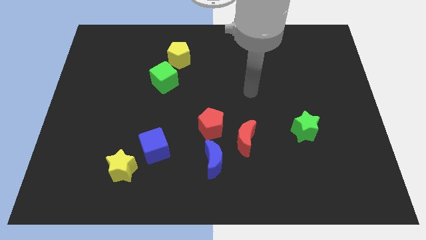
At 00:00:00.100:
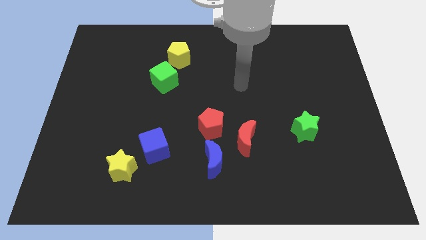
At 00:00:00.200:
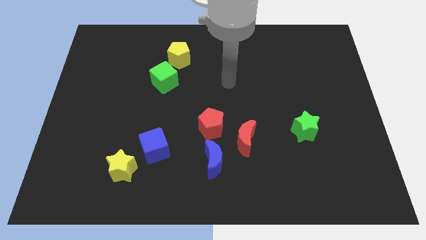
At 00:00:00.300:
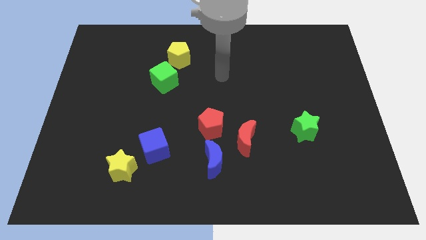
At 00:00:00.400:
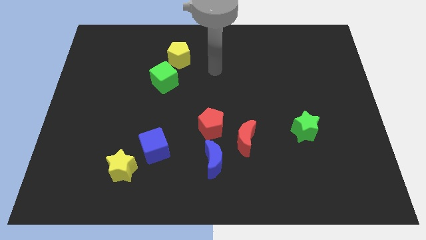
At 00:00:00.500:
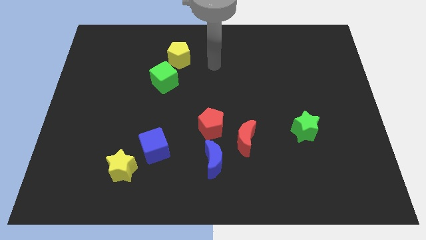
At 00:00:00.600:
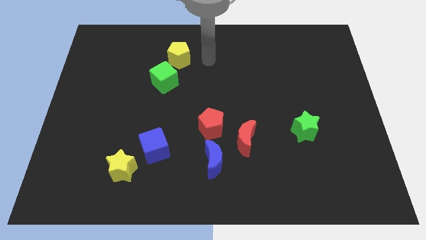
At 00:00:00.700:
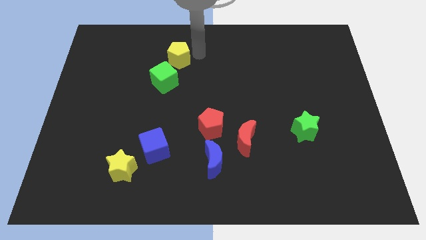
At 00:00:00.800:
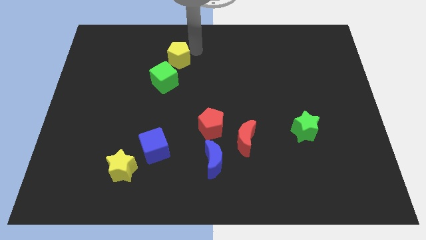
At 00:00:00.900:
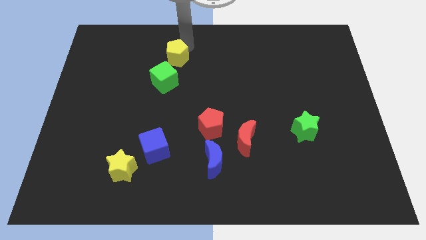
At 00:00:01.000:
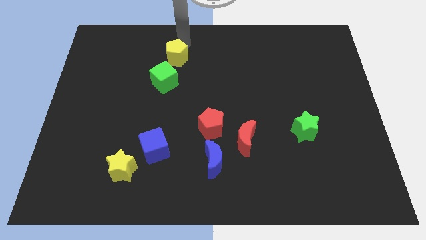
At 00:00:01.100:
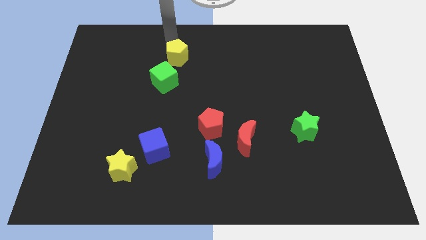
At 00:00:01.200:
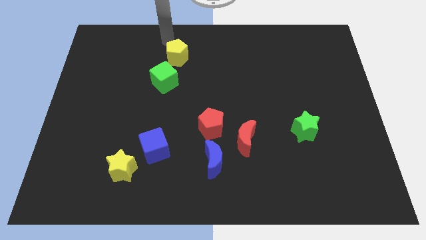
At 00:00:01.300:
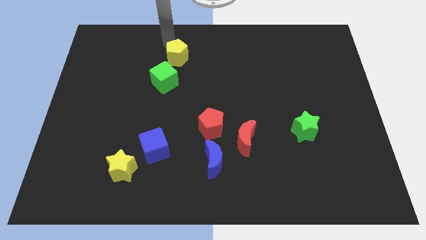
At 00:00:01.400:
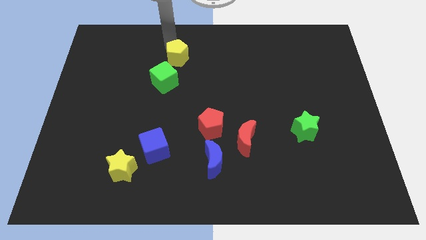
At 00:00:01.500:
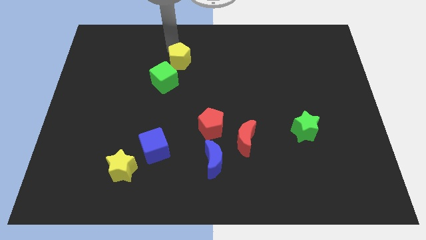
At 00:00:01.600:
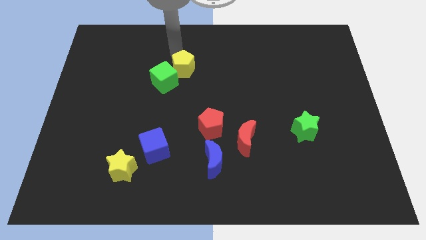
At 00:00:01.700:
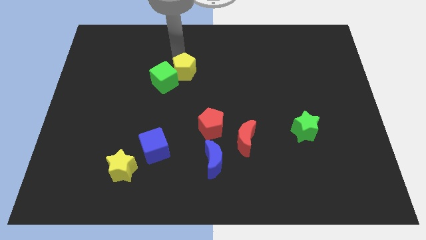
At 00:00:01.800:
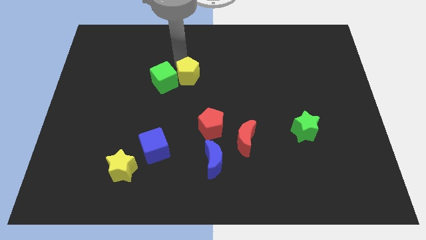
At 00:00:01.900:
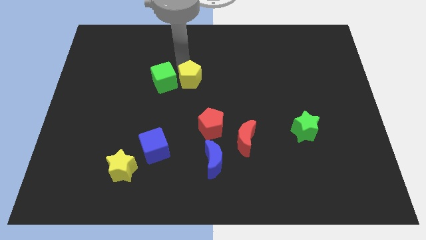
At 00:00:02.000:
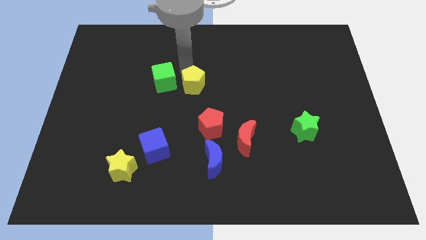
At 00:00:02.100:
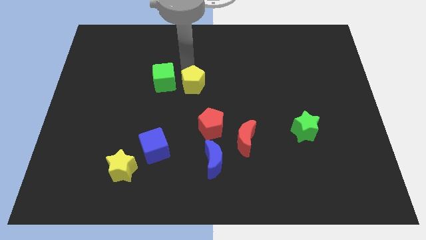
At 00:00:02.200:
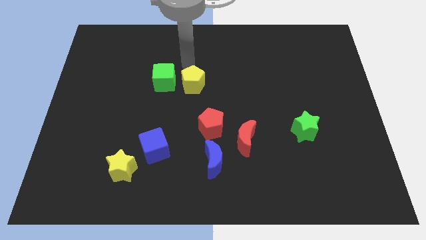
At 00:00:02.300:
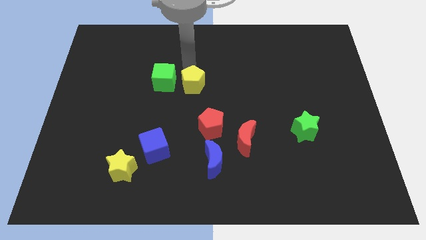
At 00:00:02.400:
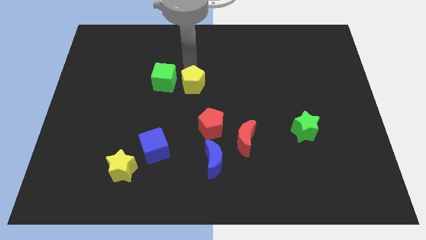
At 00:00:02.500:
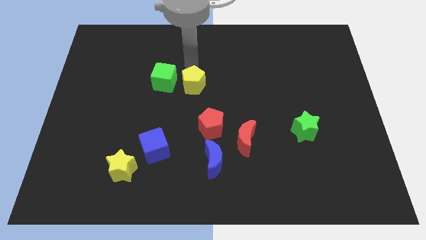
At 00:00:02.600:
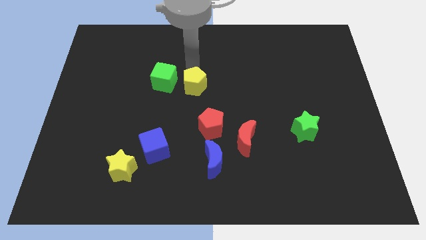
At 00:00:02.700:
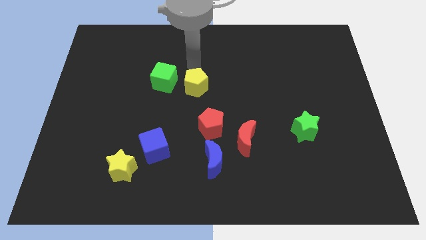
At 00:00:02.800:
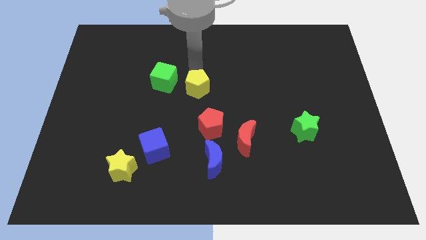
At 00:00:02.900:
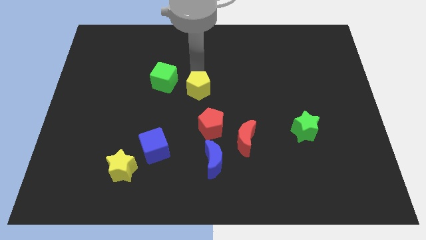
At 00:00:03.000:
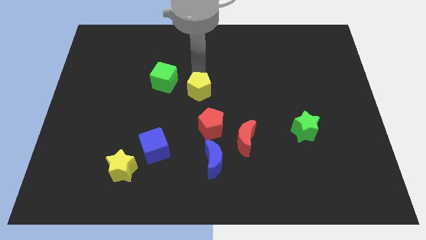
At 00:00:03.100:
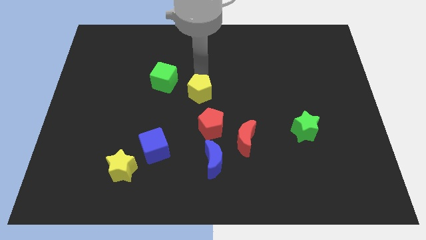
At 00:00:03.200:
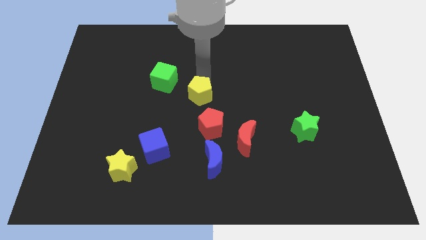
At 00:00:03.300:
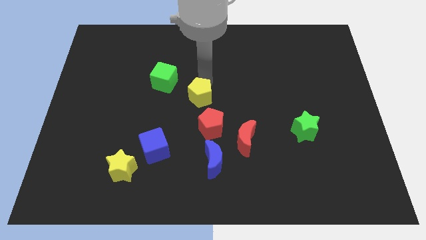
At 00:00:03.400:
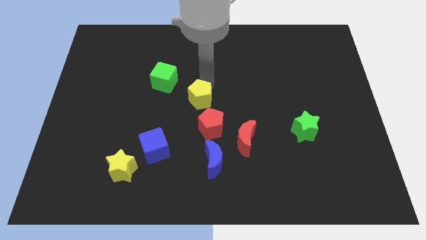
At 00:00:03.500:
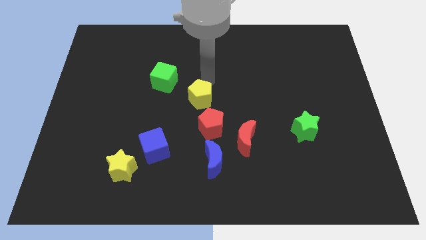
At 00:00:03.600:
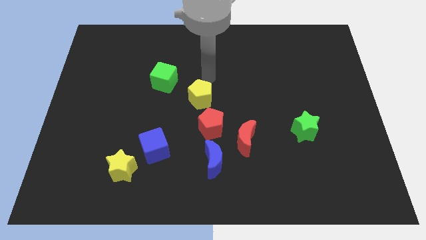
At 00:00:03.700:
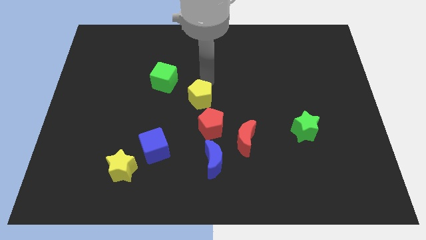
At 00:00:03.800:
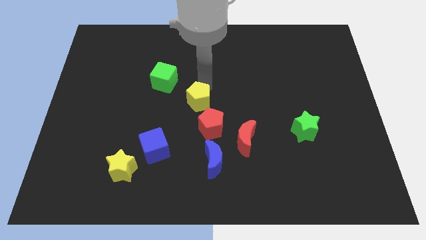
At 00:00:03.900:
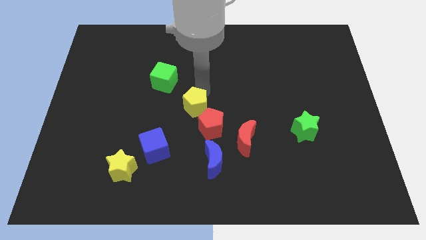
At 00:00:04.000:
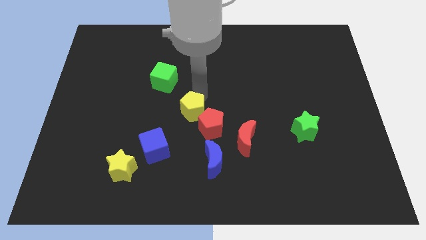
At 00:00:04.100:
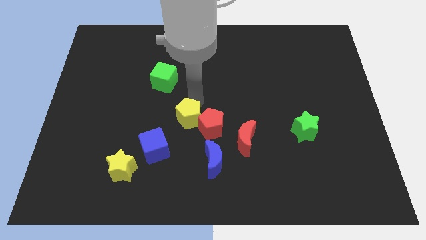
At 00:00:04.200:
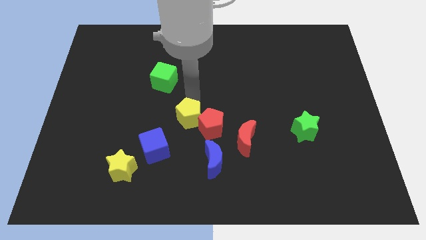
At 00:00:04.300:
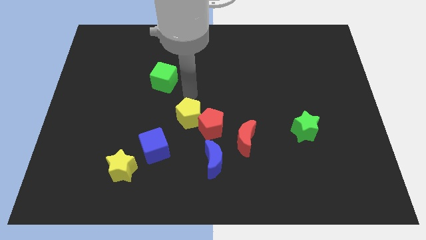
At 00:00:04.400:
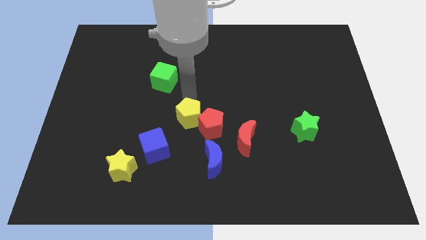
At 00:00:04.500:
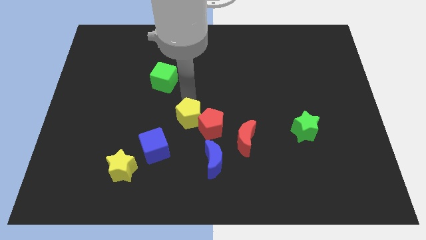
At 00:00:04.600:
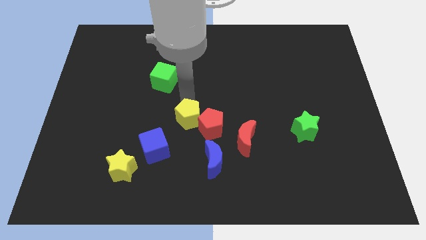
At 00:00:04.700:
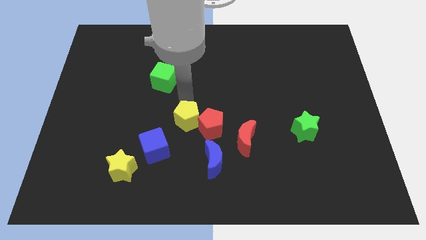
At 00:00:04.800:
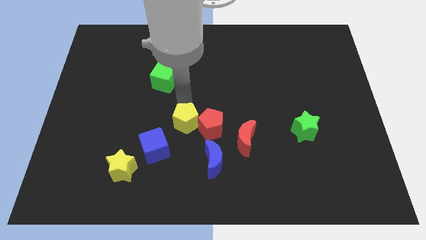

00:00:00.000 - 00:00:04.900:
move the yellow pentagon diagonally up and to the left of the blue moon

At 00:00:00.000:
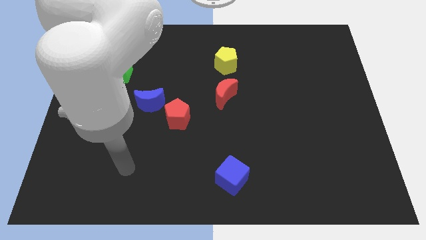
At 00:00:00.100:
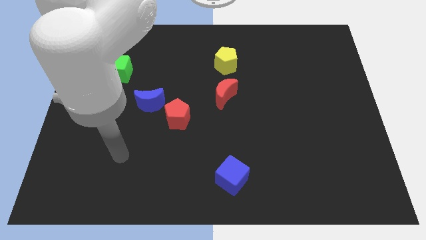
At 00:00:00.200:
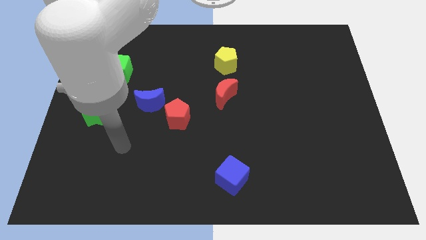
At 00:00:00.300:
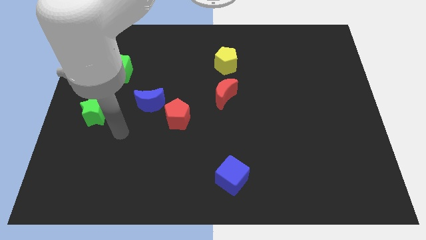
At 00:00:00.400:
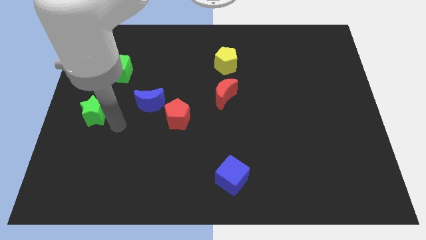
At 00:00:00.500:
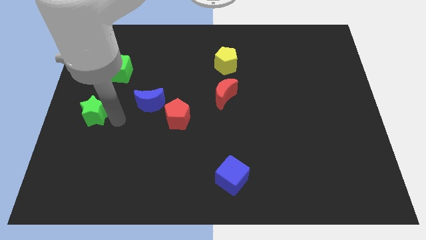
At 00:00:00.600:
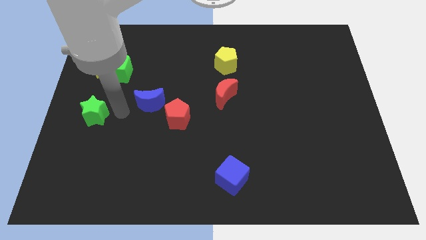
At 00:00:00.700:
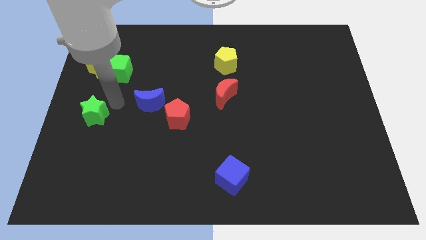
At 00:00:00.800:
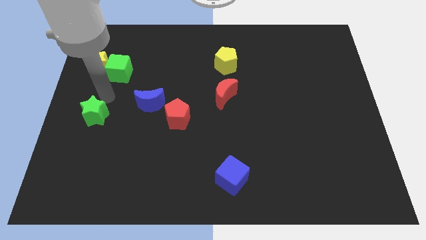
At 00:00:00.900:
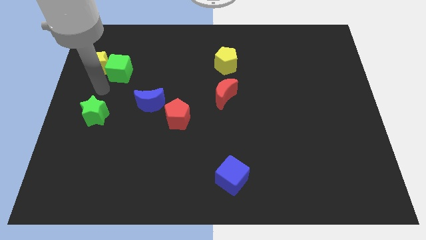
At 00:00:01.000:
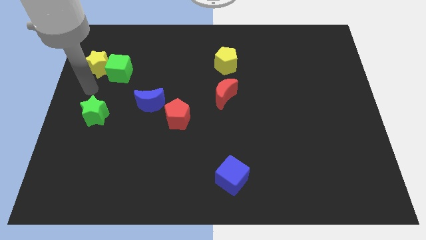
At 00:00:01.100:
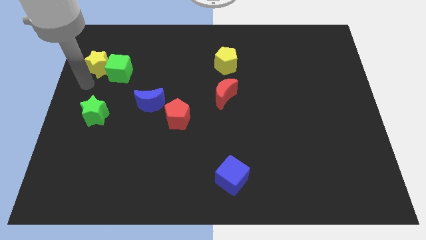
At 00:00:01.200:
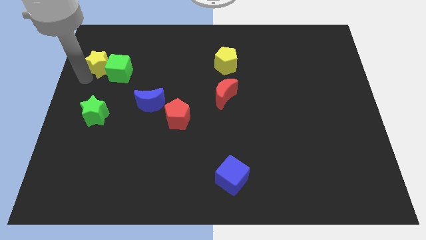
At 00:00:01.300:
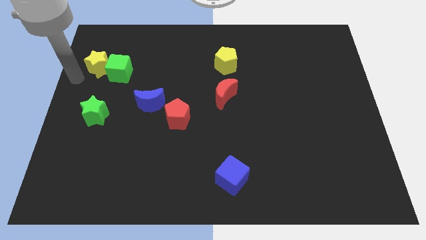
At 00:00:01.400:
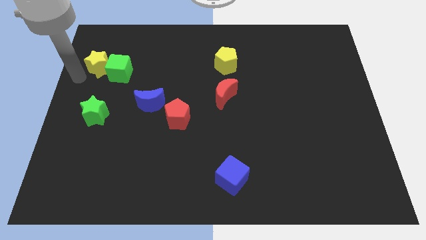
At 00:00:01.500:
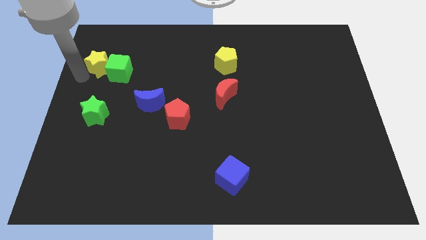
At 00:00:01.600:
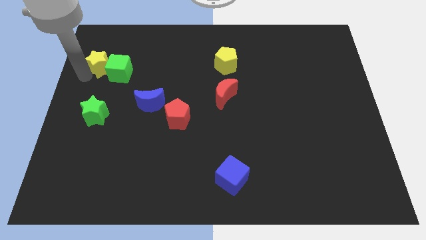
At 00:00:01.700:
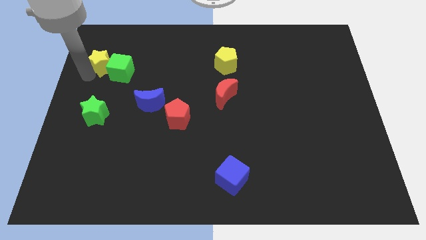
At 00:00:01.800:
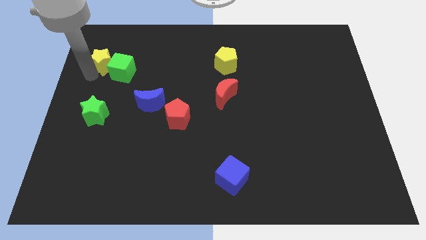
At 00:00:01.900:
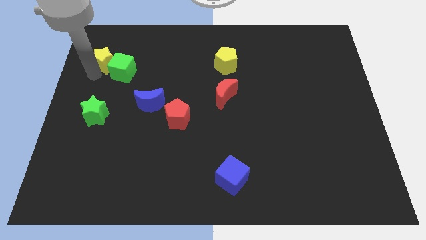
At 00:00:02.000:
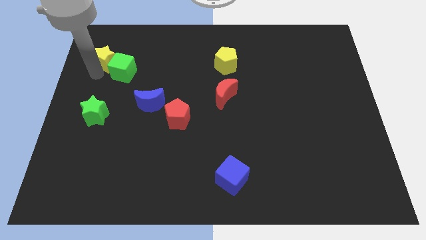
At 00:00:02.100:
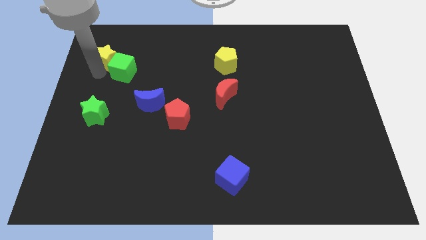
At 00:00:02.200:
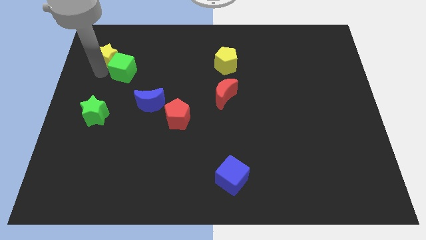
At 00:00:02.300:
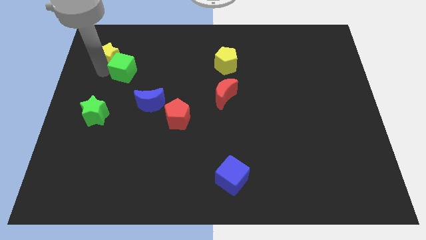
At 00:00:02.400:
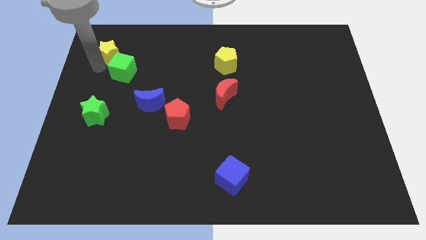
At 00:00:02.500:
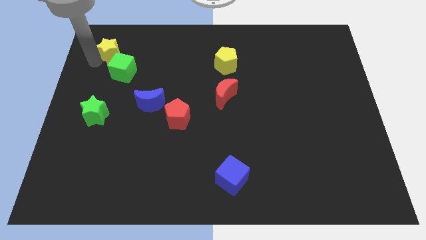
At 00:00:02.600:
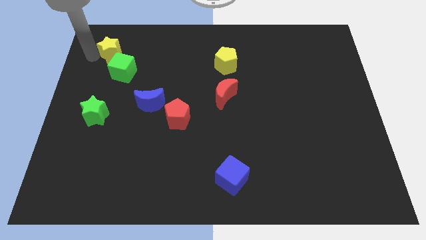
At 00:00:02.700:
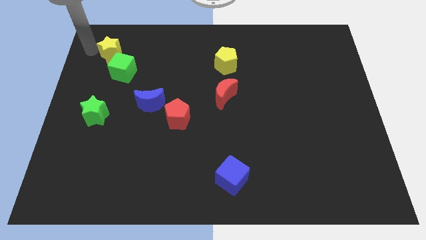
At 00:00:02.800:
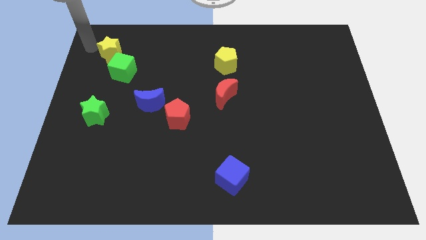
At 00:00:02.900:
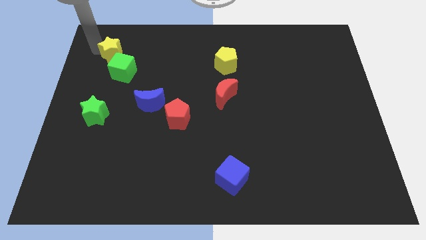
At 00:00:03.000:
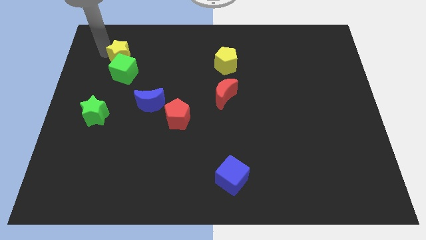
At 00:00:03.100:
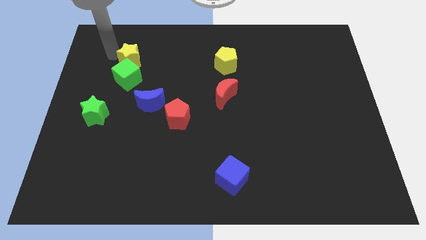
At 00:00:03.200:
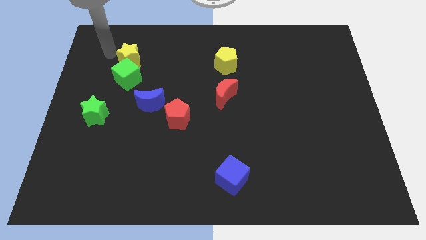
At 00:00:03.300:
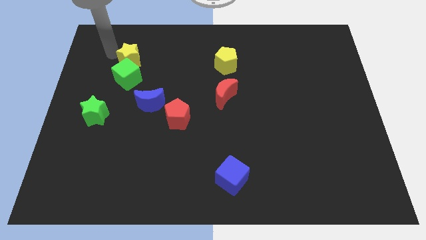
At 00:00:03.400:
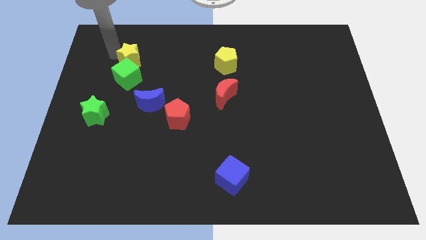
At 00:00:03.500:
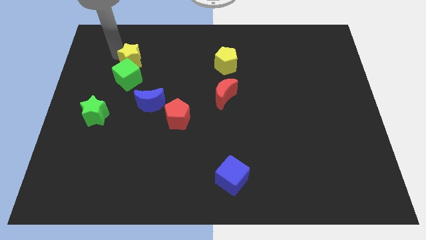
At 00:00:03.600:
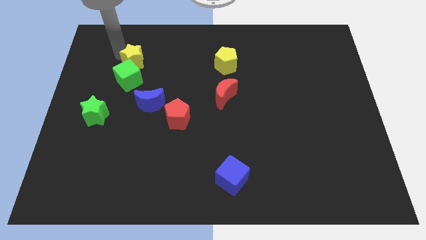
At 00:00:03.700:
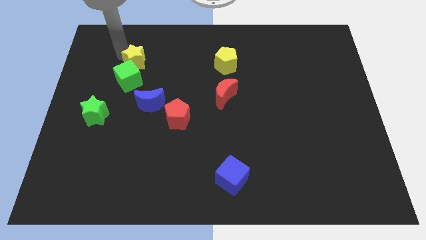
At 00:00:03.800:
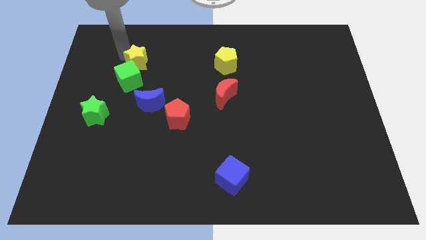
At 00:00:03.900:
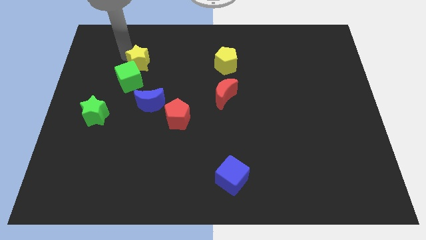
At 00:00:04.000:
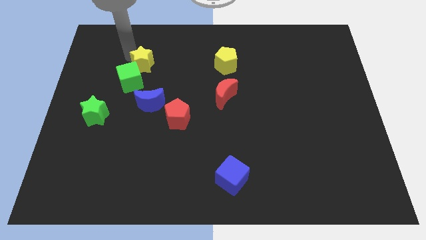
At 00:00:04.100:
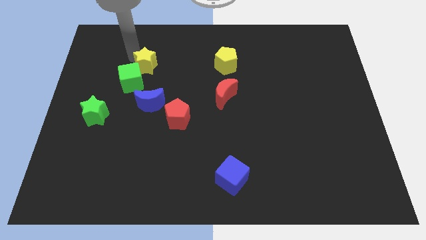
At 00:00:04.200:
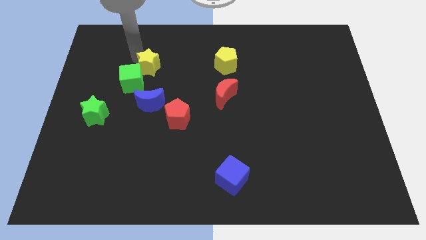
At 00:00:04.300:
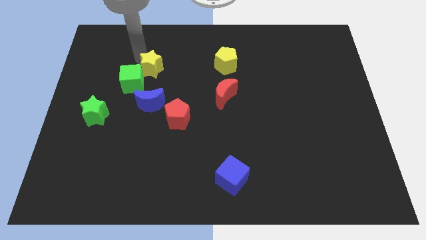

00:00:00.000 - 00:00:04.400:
put the yellow star to the right side of the green cube
